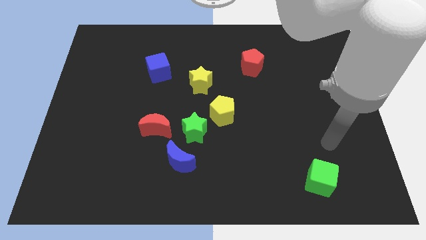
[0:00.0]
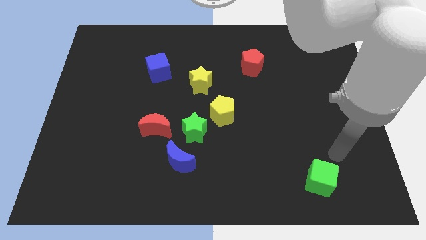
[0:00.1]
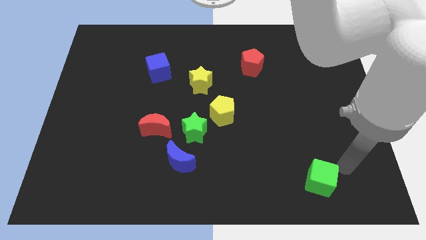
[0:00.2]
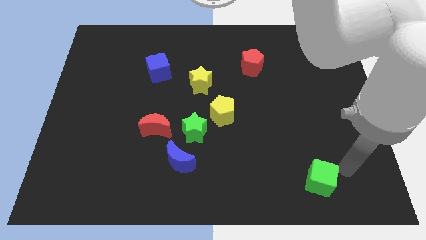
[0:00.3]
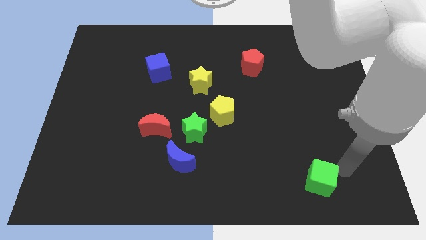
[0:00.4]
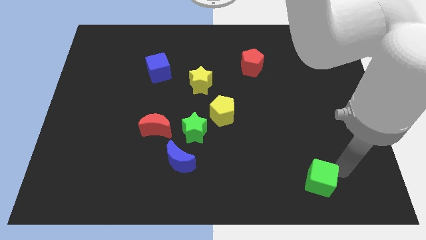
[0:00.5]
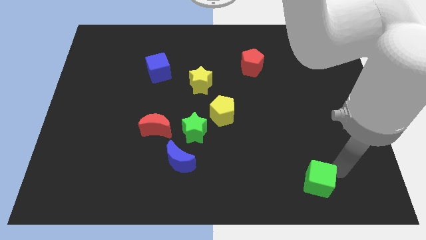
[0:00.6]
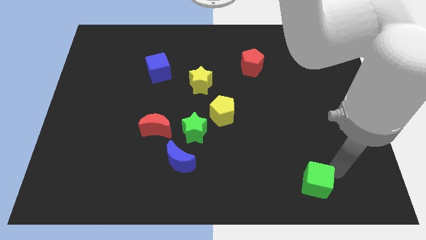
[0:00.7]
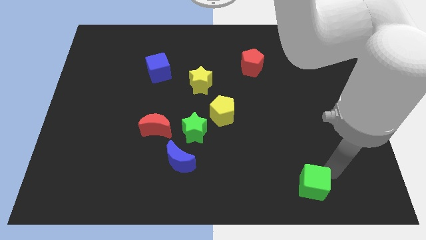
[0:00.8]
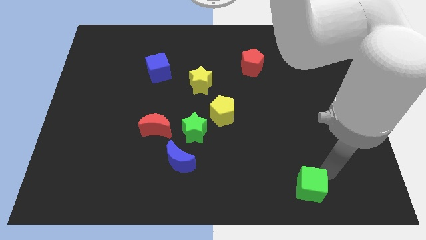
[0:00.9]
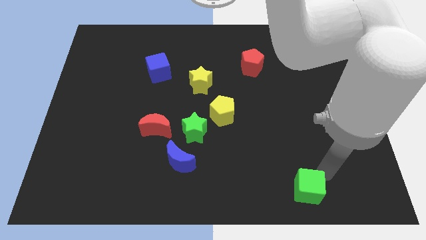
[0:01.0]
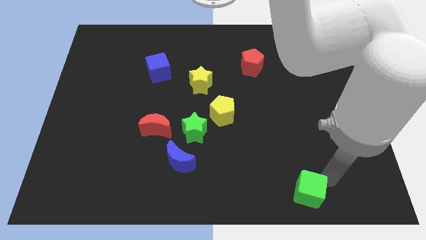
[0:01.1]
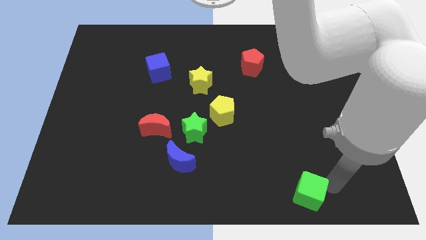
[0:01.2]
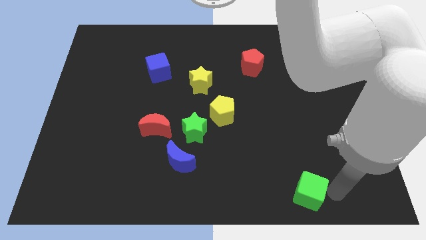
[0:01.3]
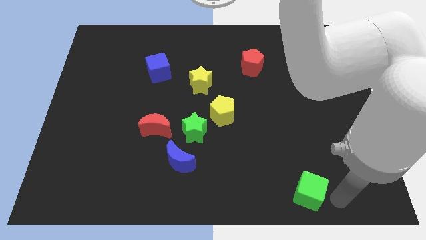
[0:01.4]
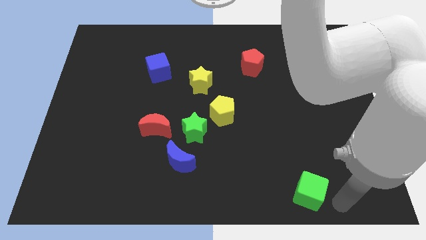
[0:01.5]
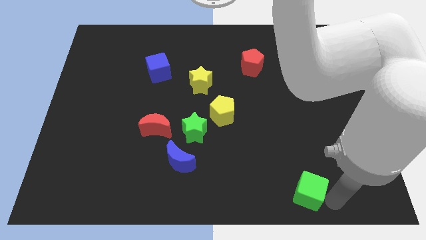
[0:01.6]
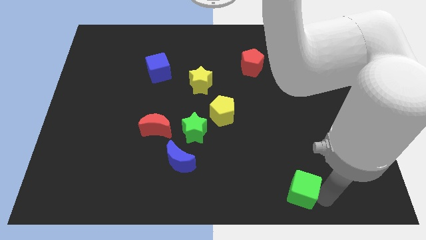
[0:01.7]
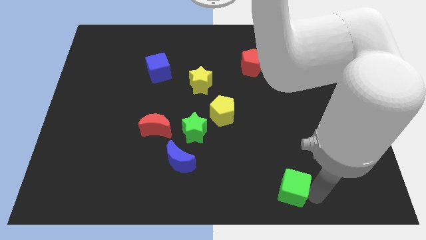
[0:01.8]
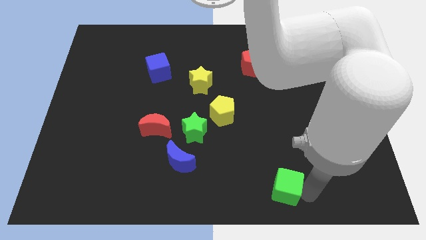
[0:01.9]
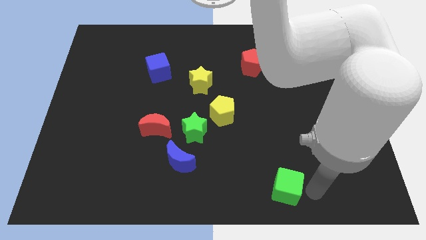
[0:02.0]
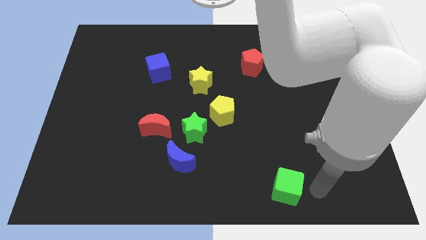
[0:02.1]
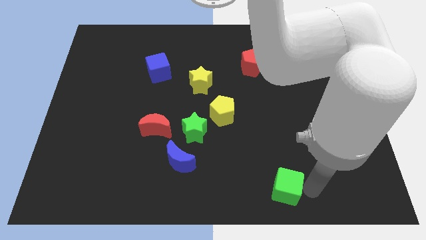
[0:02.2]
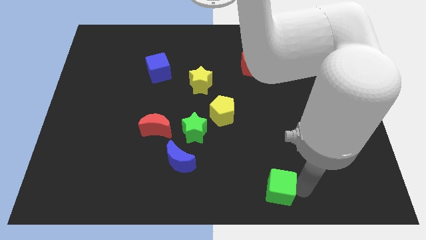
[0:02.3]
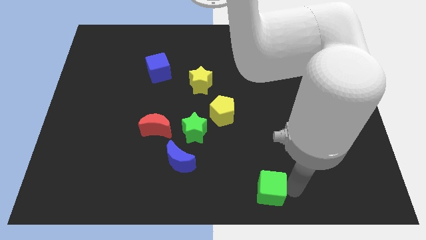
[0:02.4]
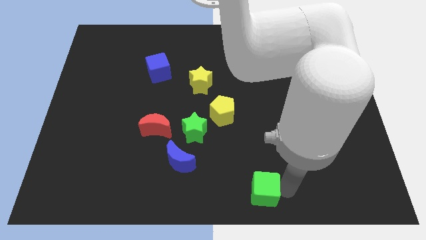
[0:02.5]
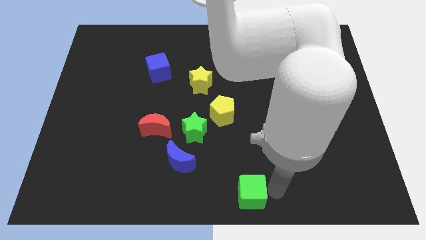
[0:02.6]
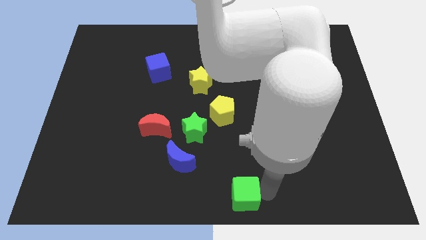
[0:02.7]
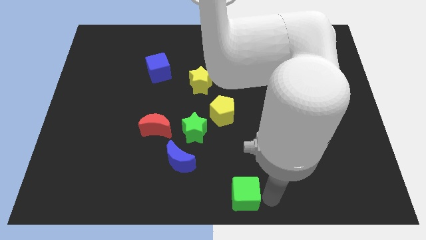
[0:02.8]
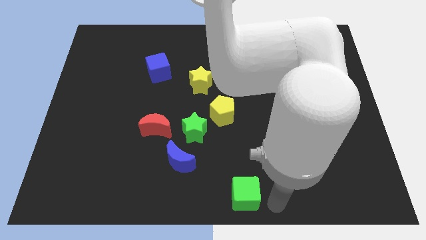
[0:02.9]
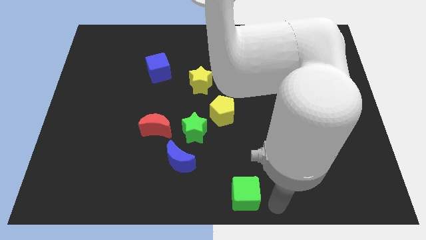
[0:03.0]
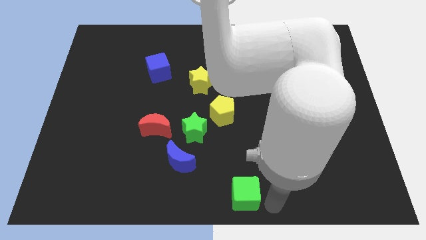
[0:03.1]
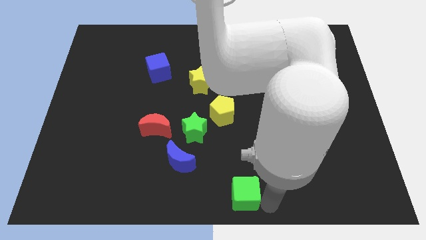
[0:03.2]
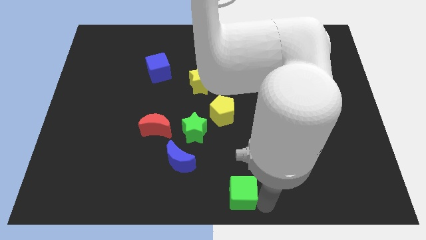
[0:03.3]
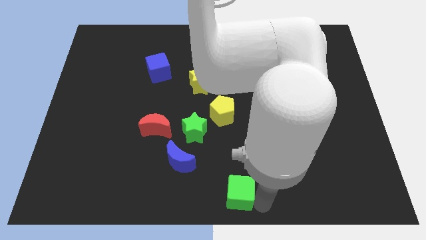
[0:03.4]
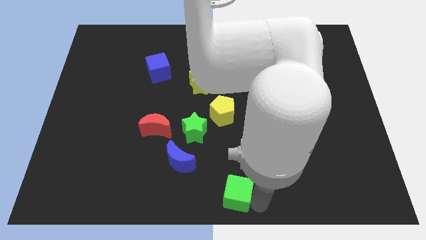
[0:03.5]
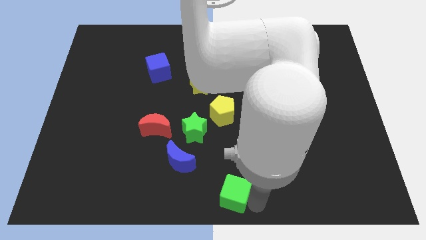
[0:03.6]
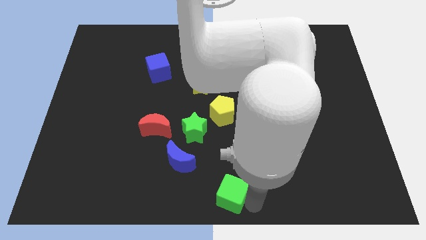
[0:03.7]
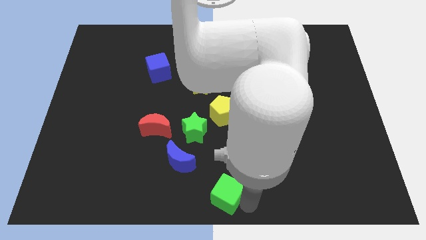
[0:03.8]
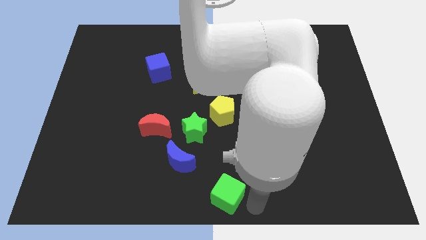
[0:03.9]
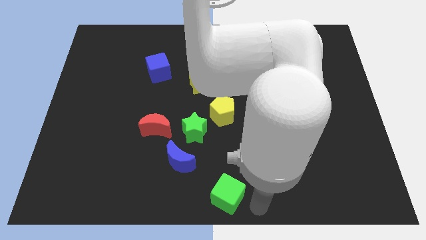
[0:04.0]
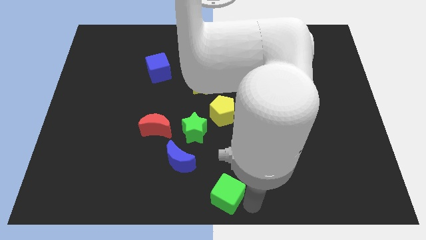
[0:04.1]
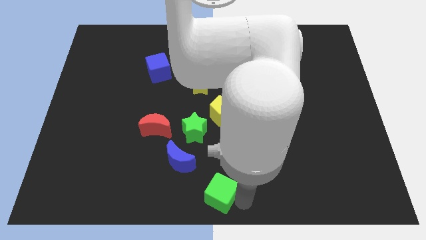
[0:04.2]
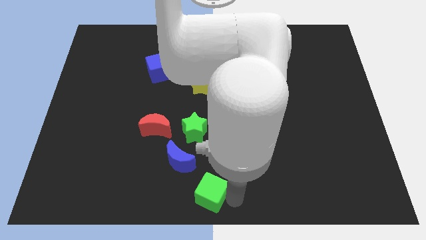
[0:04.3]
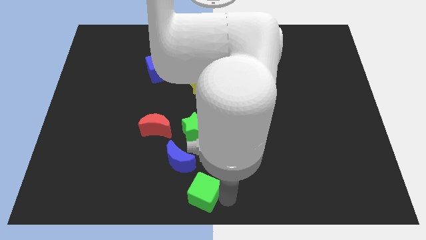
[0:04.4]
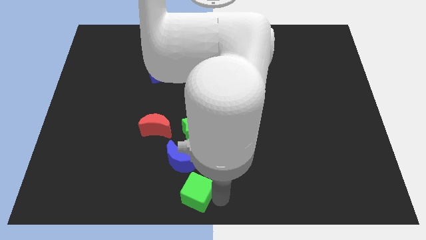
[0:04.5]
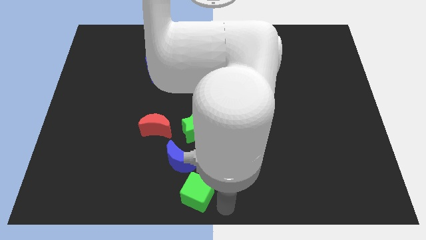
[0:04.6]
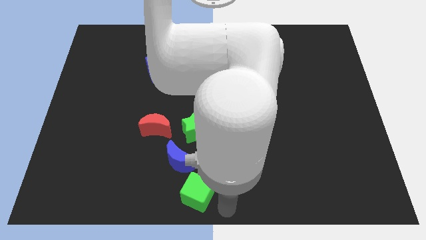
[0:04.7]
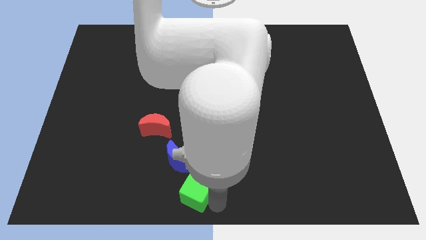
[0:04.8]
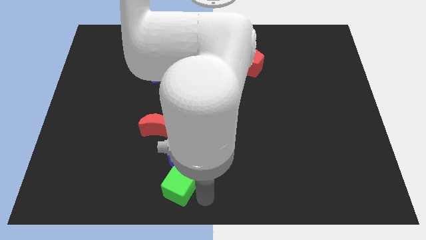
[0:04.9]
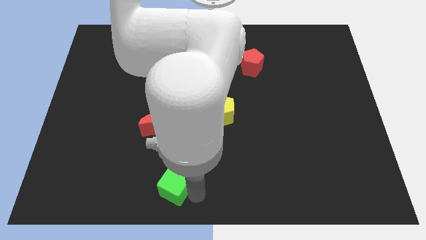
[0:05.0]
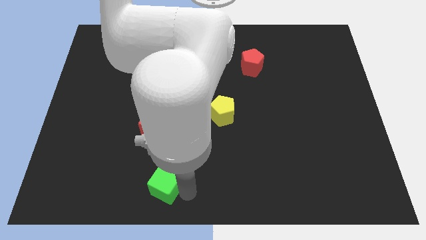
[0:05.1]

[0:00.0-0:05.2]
put the green cube to the bottom of the red moon

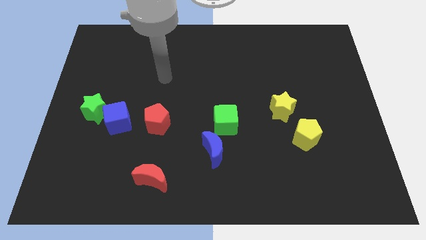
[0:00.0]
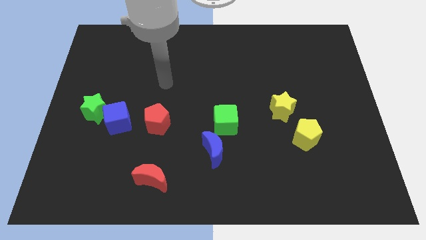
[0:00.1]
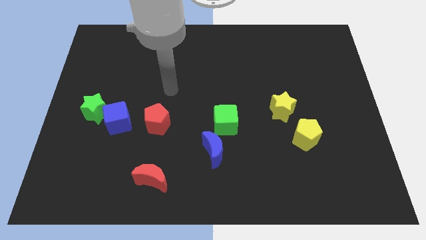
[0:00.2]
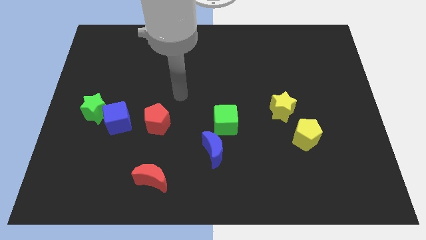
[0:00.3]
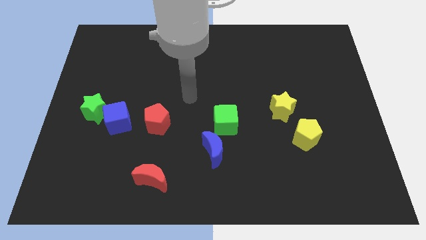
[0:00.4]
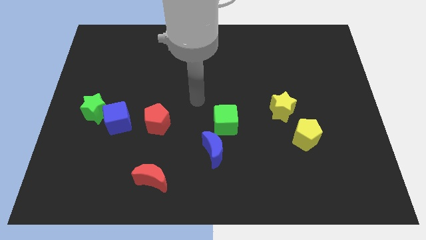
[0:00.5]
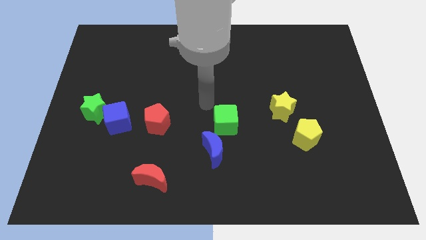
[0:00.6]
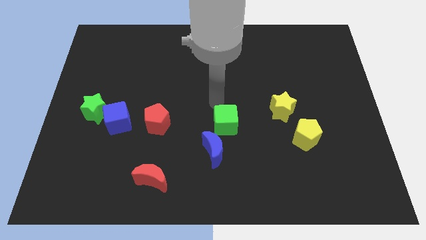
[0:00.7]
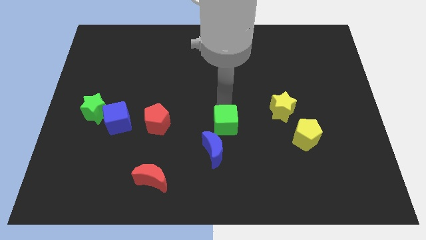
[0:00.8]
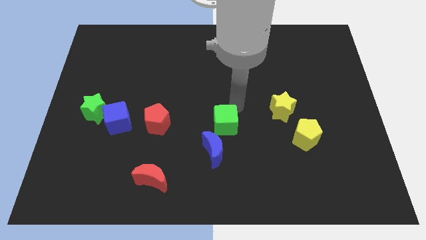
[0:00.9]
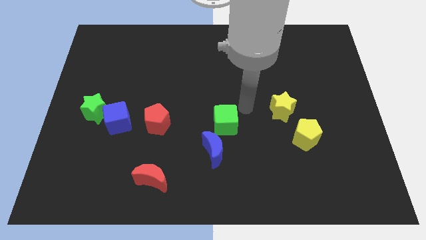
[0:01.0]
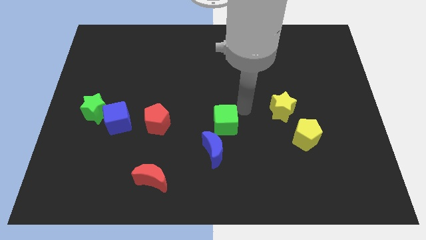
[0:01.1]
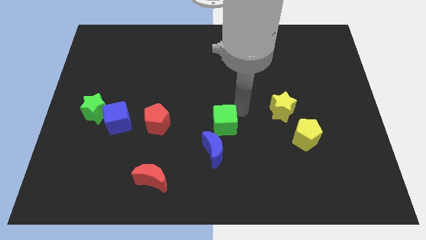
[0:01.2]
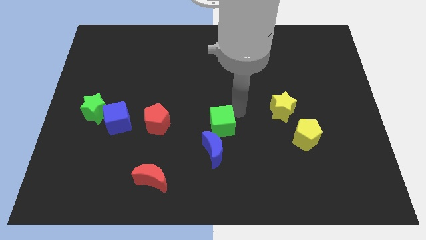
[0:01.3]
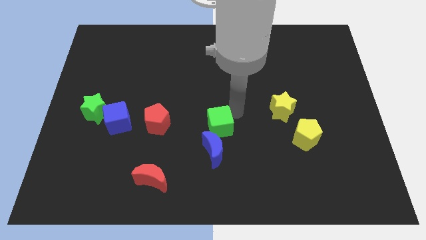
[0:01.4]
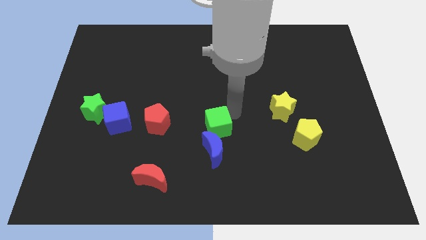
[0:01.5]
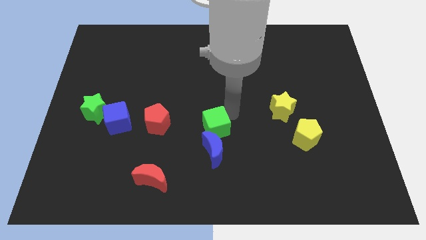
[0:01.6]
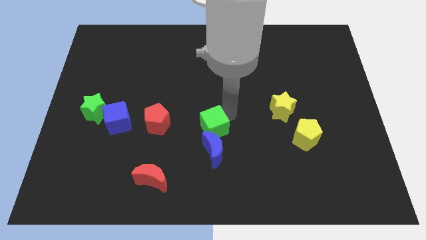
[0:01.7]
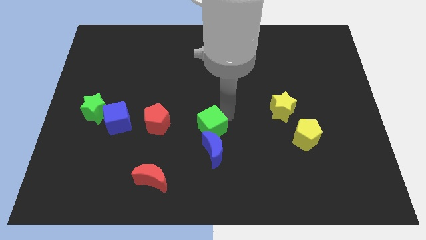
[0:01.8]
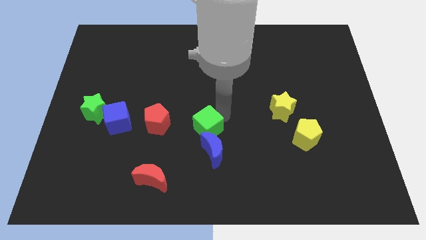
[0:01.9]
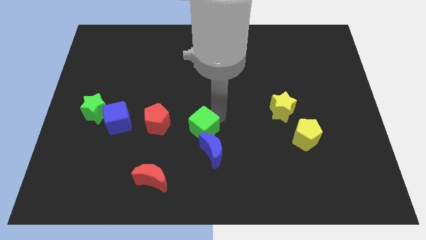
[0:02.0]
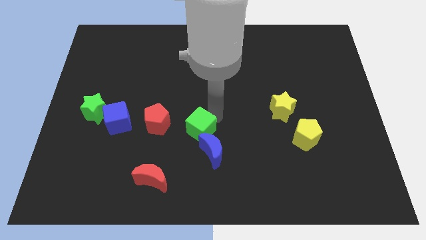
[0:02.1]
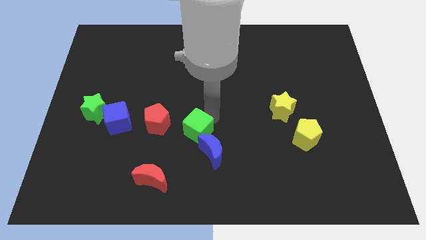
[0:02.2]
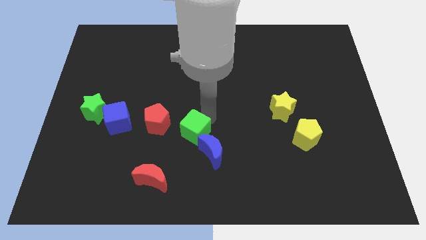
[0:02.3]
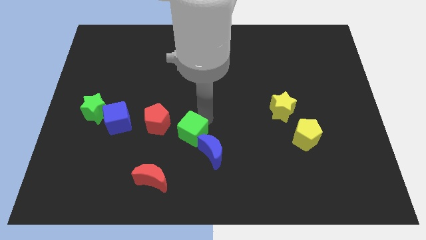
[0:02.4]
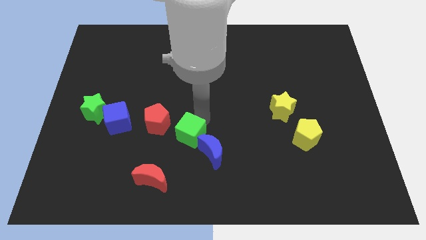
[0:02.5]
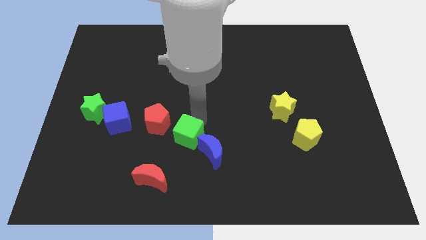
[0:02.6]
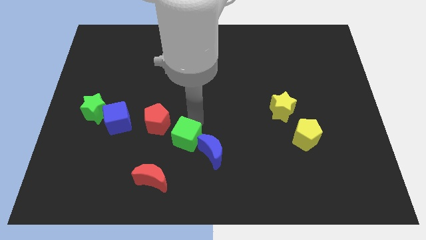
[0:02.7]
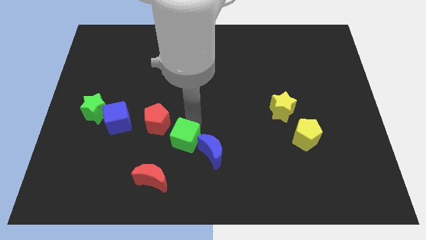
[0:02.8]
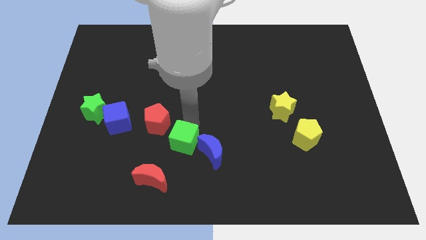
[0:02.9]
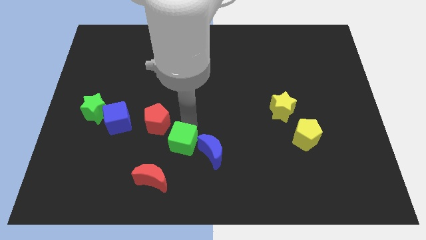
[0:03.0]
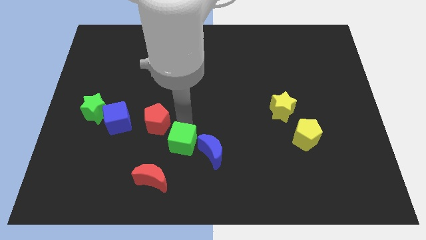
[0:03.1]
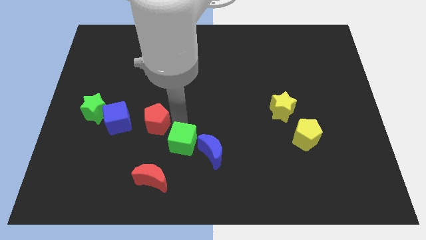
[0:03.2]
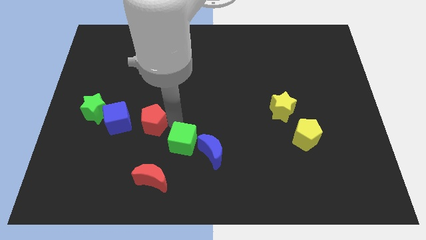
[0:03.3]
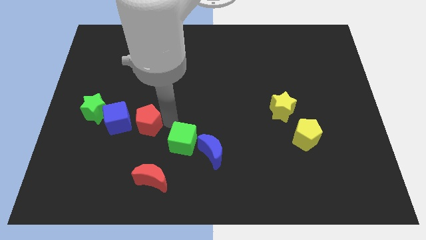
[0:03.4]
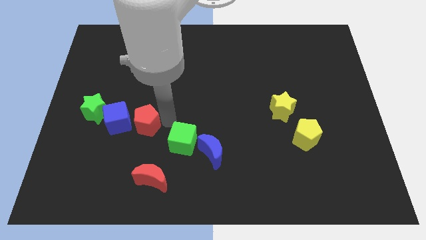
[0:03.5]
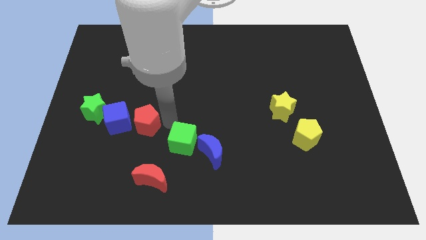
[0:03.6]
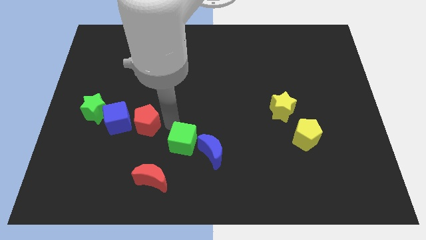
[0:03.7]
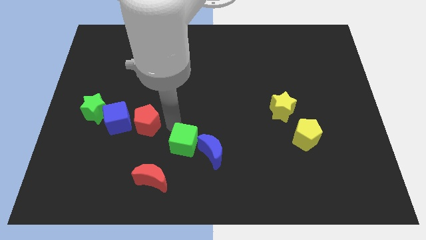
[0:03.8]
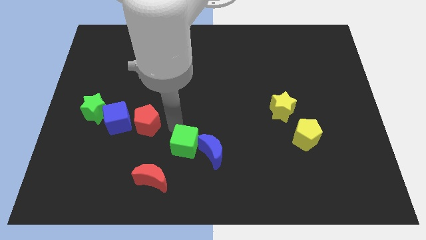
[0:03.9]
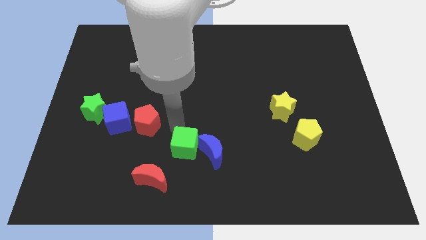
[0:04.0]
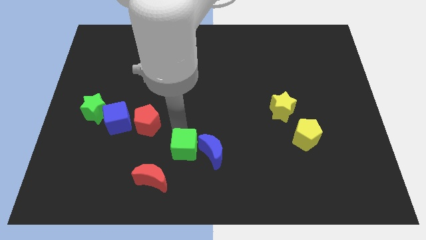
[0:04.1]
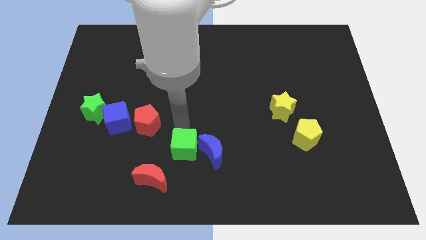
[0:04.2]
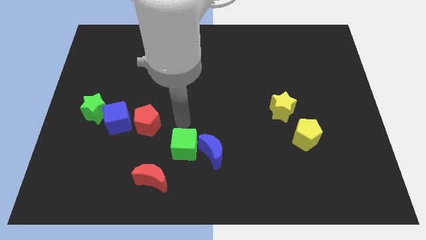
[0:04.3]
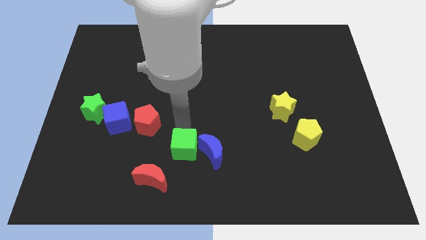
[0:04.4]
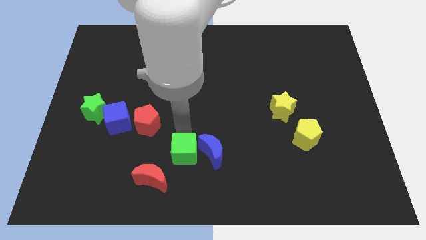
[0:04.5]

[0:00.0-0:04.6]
put the green cube to the bottom left side of the blue moon
